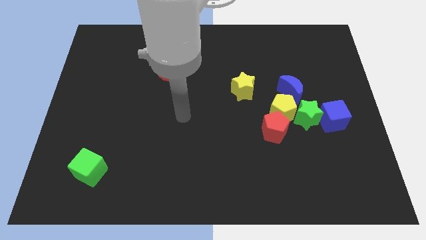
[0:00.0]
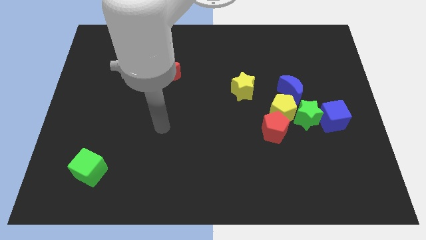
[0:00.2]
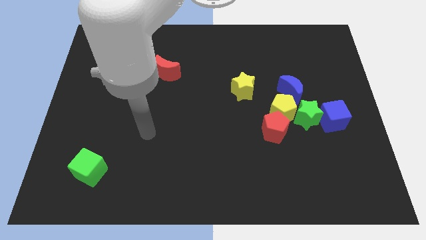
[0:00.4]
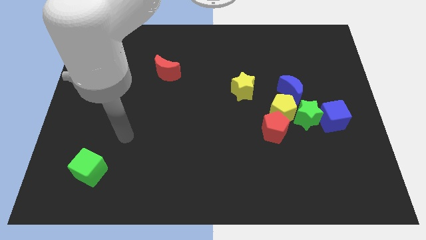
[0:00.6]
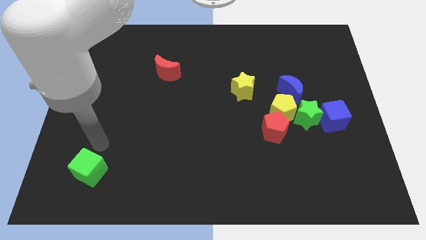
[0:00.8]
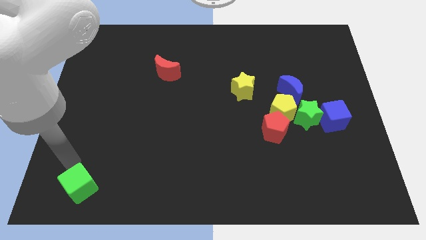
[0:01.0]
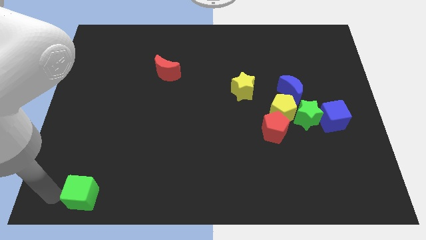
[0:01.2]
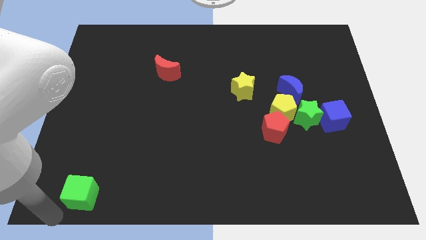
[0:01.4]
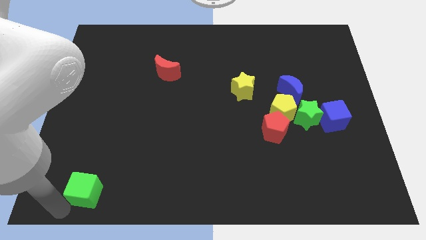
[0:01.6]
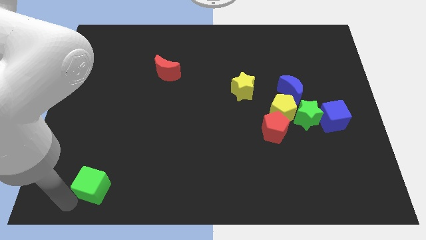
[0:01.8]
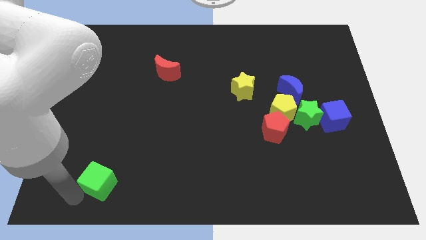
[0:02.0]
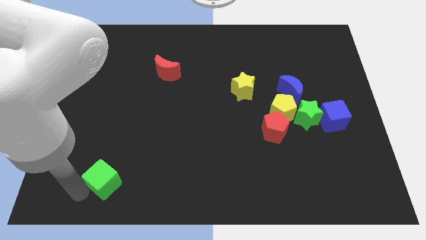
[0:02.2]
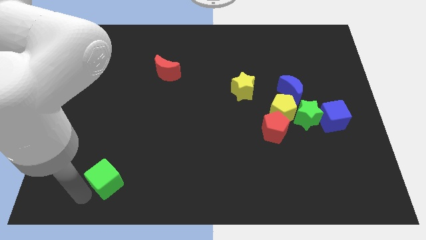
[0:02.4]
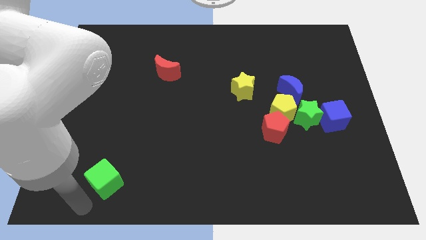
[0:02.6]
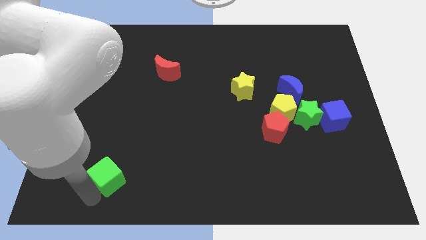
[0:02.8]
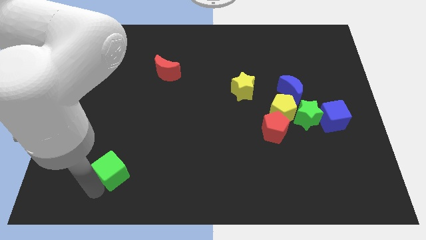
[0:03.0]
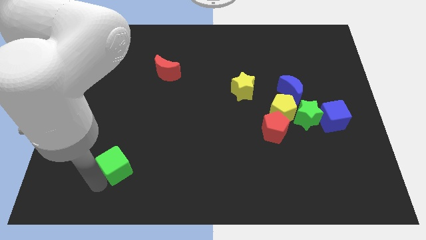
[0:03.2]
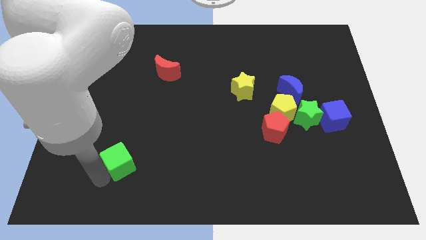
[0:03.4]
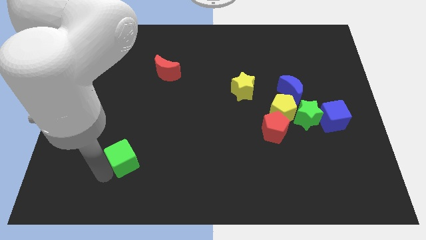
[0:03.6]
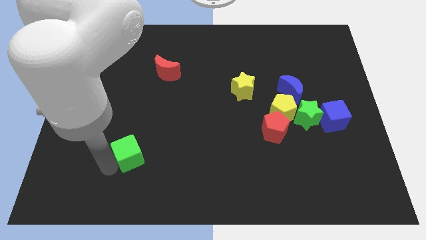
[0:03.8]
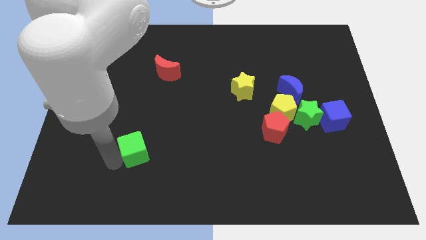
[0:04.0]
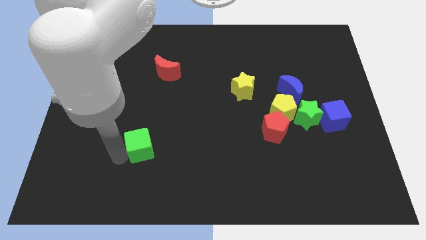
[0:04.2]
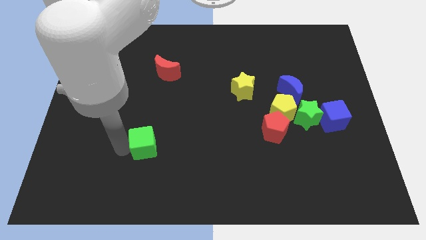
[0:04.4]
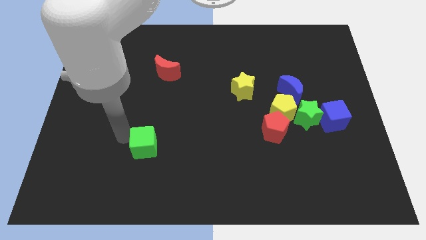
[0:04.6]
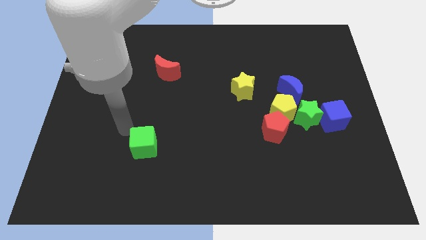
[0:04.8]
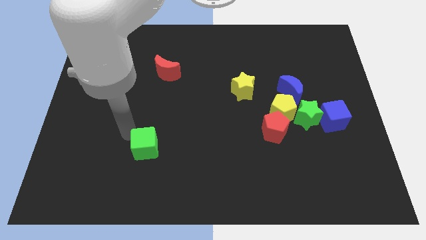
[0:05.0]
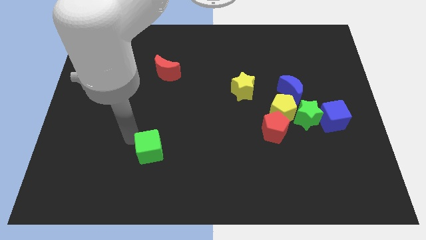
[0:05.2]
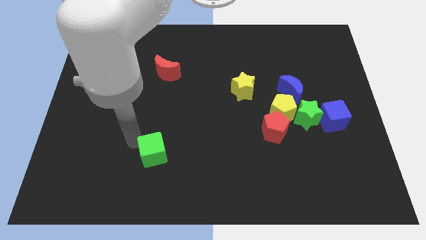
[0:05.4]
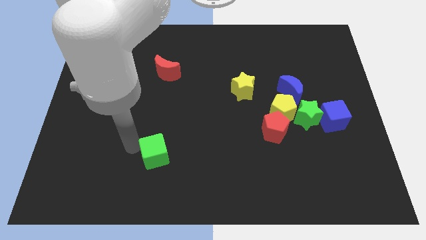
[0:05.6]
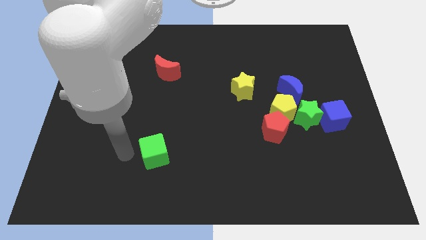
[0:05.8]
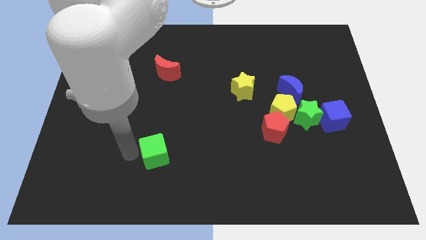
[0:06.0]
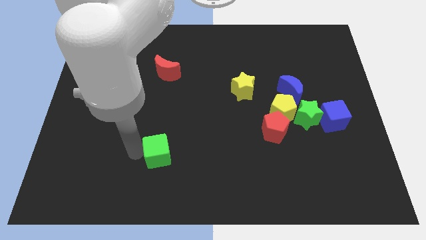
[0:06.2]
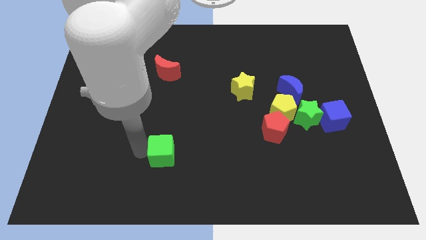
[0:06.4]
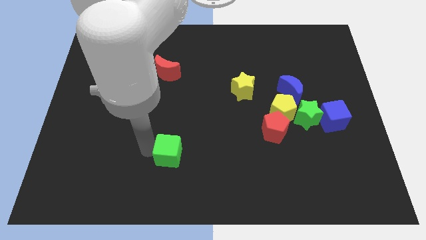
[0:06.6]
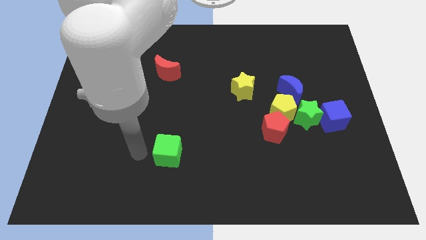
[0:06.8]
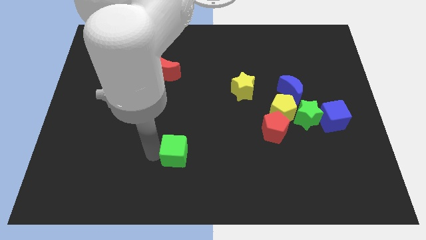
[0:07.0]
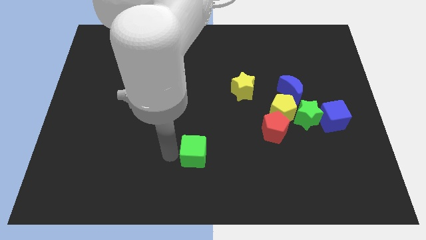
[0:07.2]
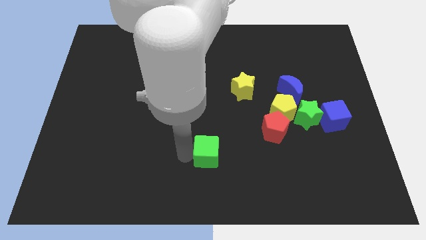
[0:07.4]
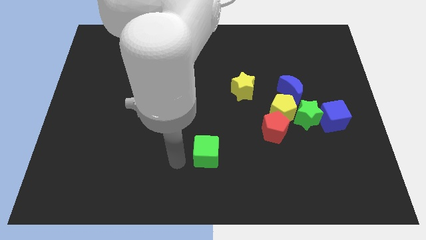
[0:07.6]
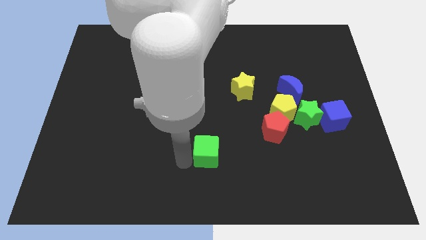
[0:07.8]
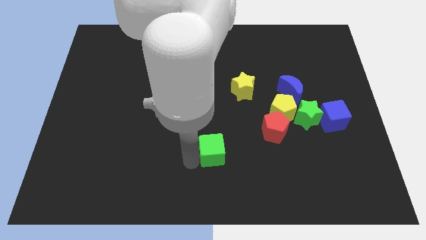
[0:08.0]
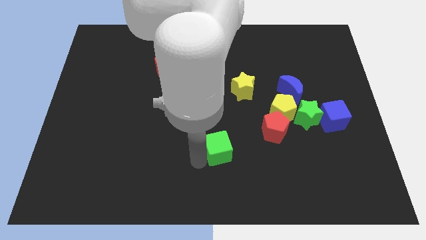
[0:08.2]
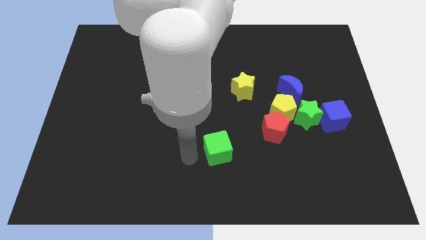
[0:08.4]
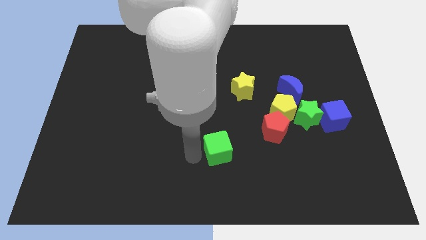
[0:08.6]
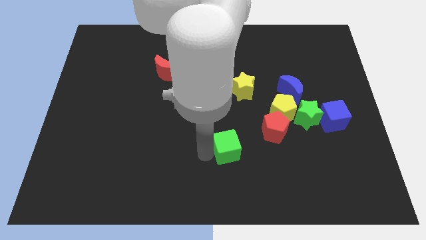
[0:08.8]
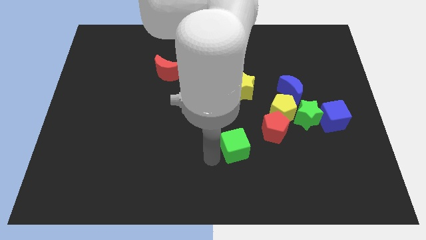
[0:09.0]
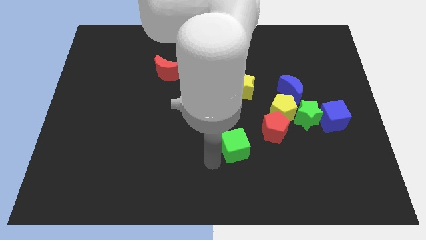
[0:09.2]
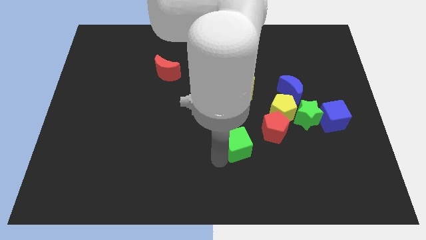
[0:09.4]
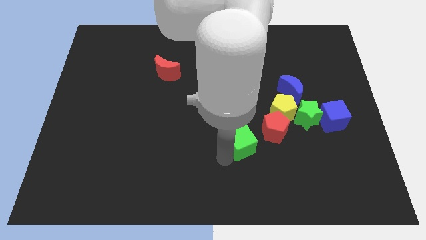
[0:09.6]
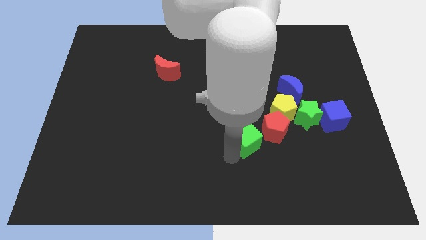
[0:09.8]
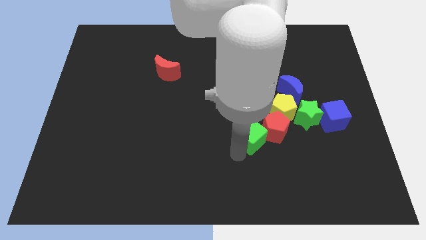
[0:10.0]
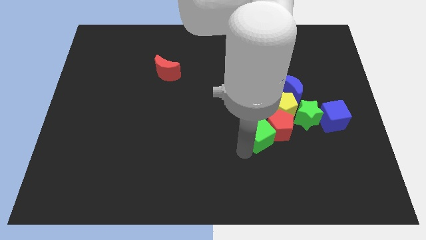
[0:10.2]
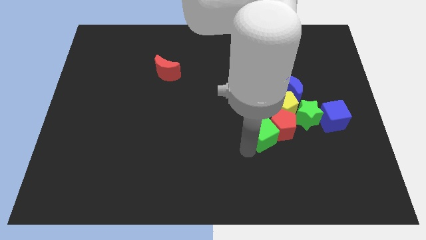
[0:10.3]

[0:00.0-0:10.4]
push the green cube left of the green star

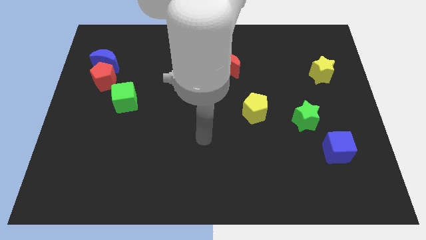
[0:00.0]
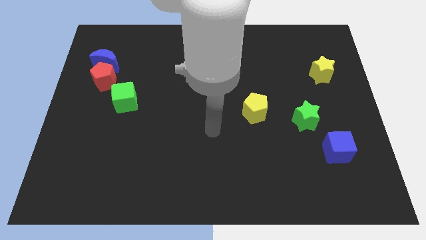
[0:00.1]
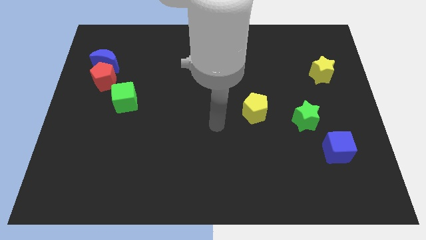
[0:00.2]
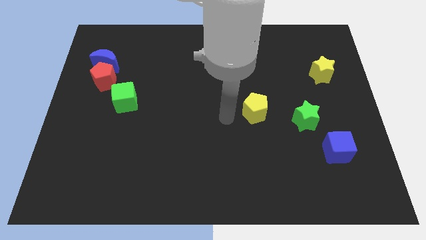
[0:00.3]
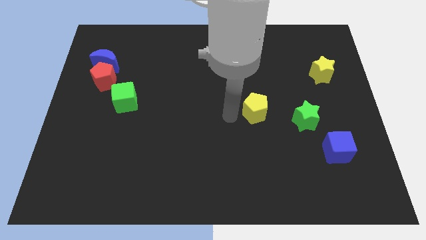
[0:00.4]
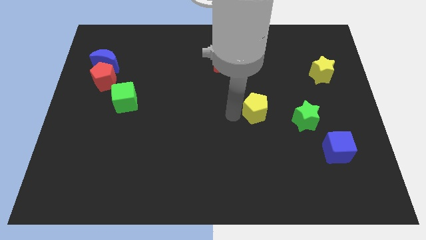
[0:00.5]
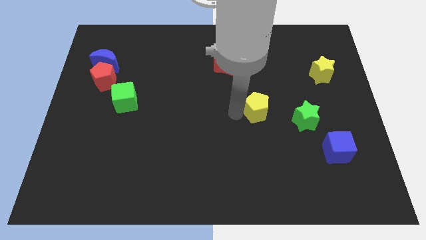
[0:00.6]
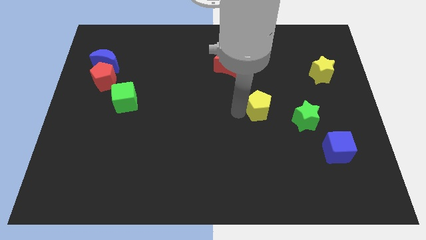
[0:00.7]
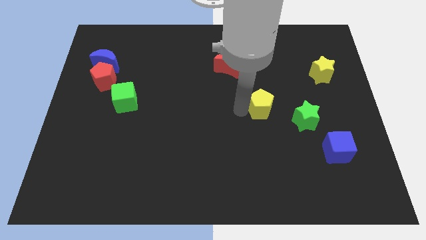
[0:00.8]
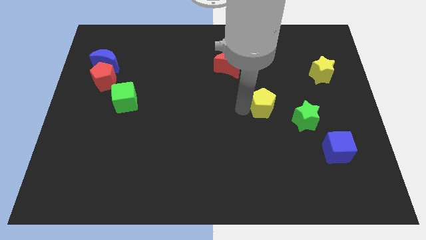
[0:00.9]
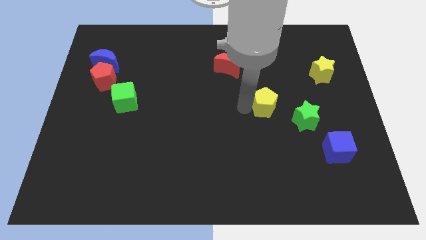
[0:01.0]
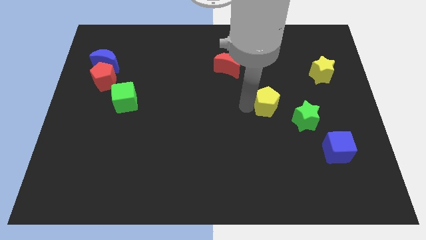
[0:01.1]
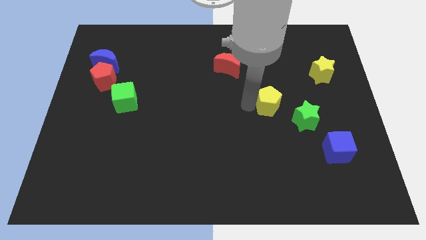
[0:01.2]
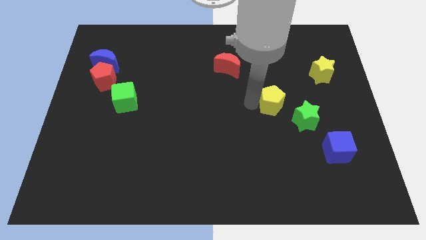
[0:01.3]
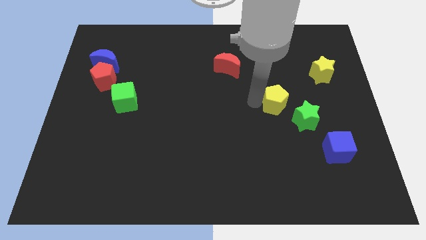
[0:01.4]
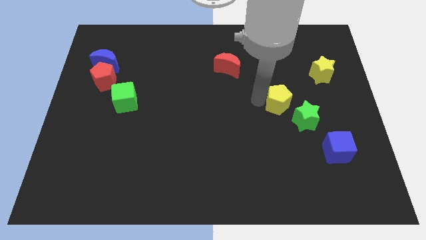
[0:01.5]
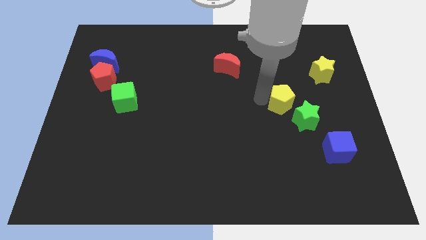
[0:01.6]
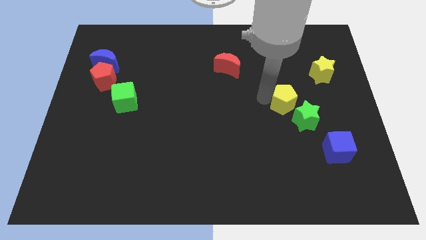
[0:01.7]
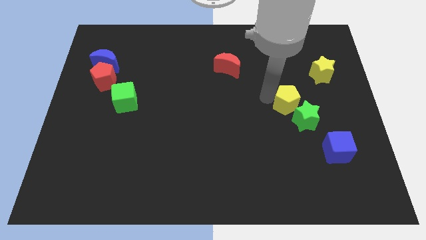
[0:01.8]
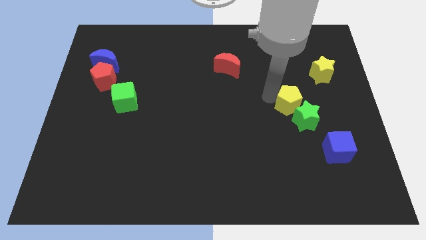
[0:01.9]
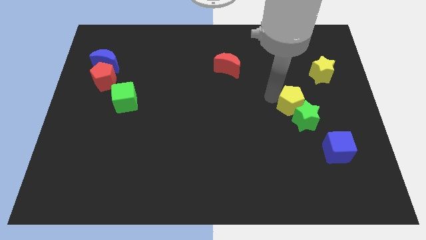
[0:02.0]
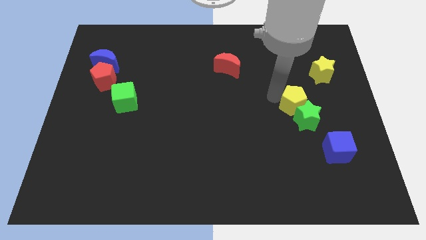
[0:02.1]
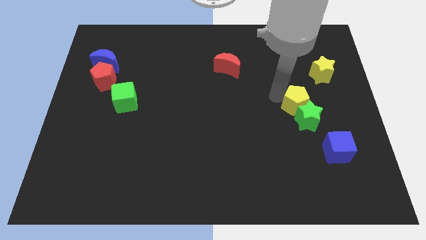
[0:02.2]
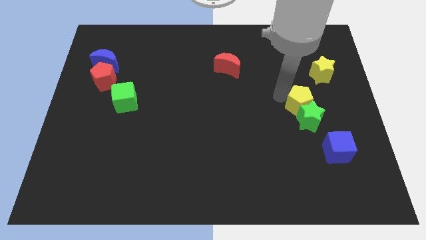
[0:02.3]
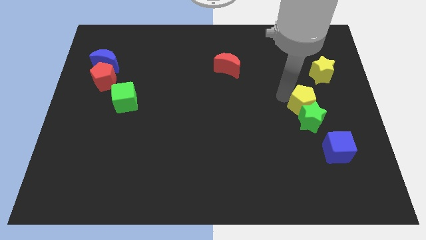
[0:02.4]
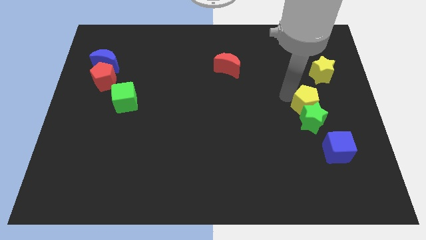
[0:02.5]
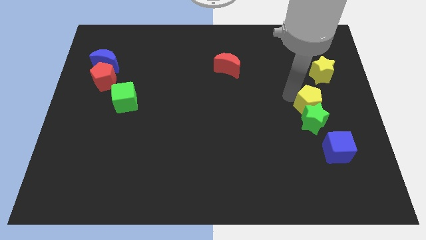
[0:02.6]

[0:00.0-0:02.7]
put the yellow pentagon above the blue cube

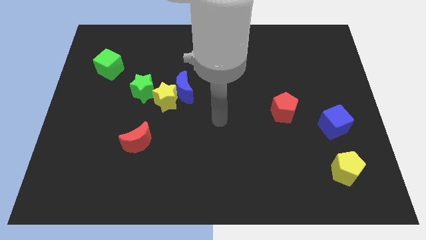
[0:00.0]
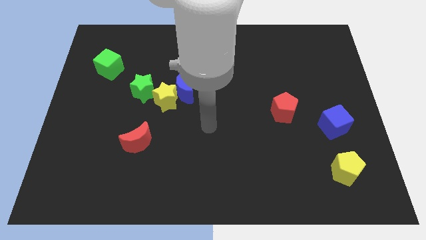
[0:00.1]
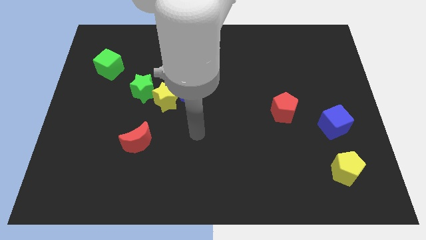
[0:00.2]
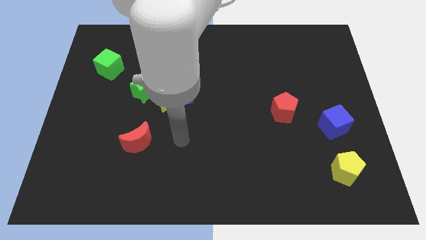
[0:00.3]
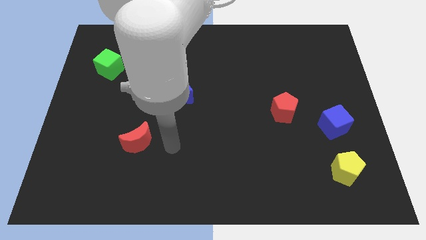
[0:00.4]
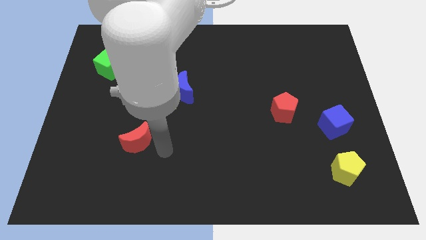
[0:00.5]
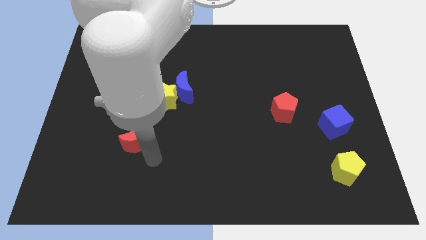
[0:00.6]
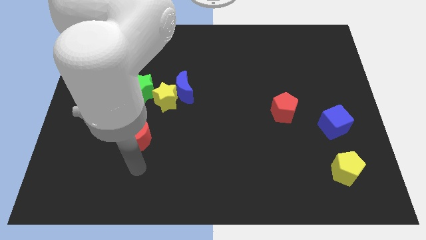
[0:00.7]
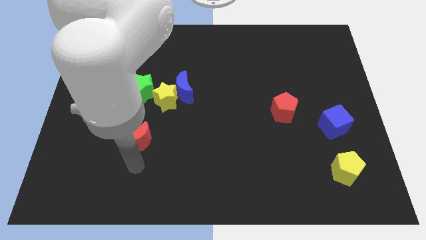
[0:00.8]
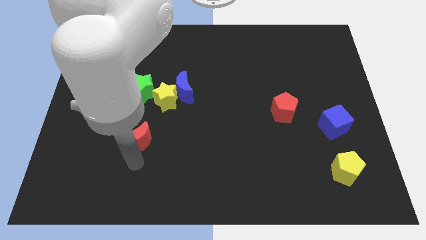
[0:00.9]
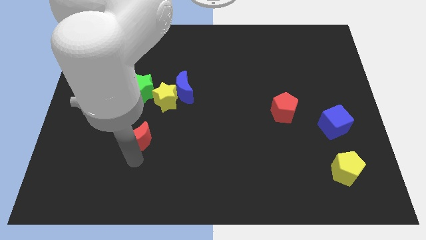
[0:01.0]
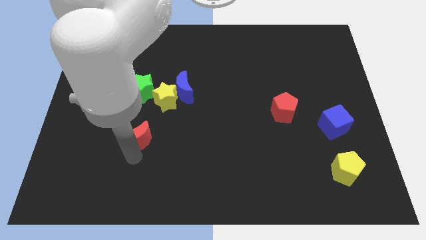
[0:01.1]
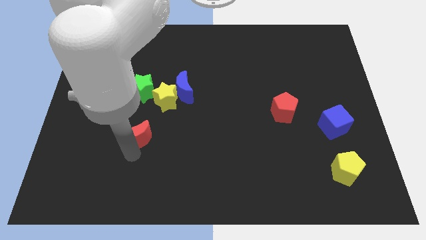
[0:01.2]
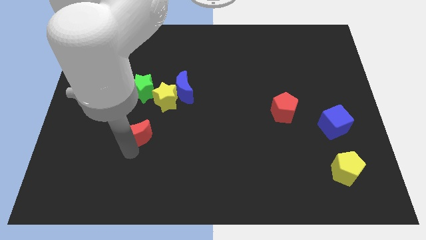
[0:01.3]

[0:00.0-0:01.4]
move the red moon to the bottom left side of the yellow star
